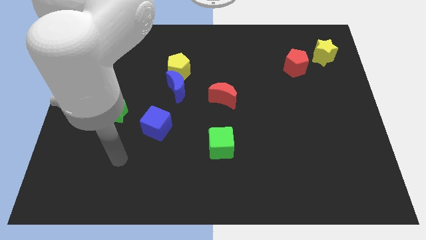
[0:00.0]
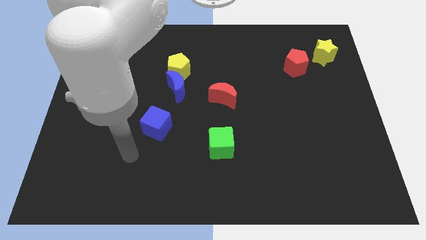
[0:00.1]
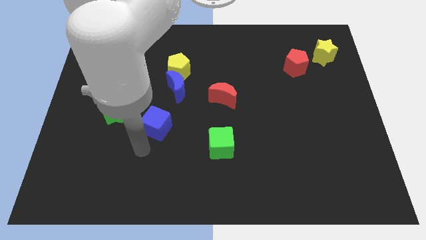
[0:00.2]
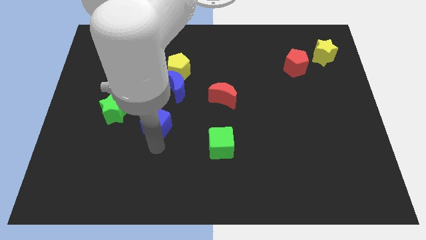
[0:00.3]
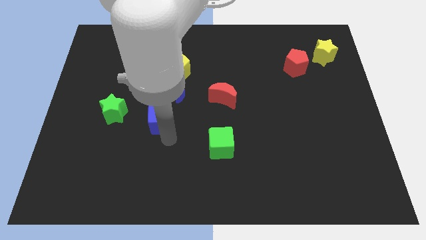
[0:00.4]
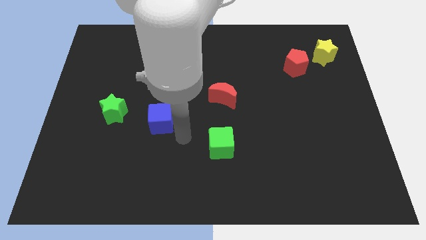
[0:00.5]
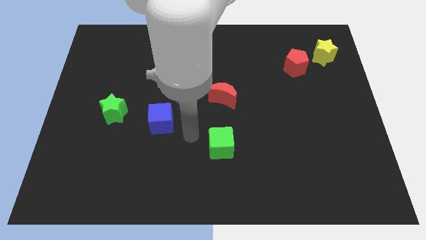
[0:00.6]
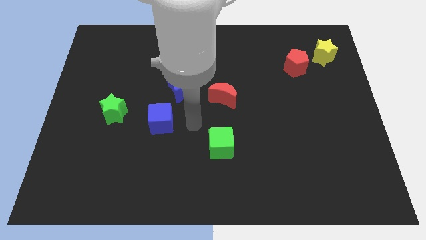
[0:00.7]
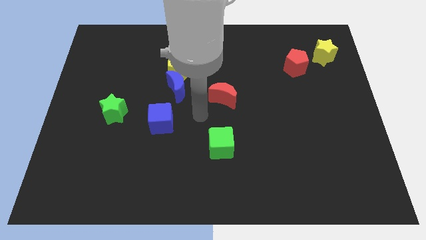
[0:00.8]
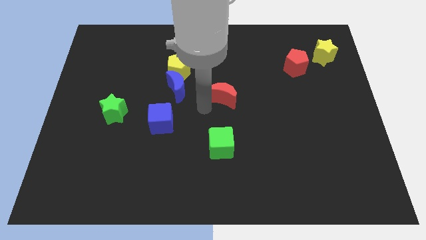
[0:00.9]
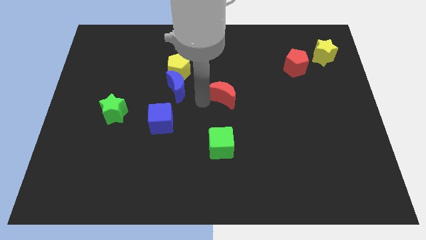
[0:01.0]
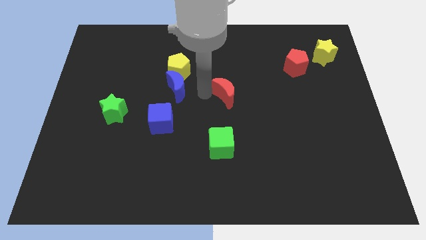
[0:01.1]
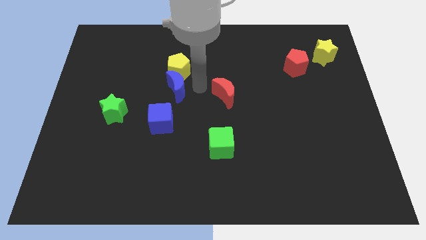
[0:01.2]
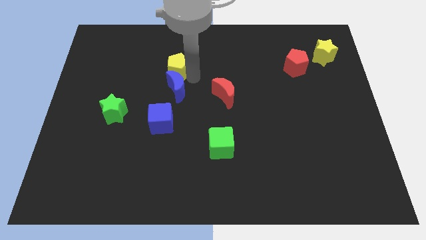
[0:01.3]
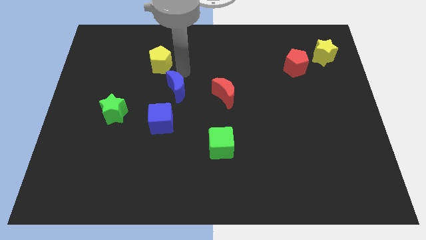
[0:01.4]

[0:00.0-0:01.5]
move the blue moon away from the yellow pentagon

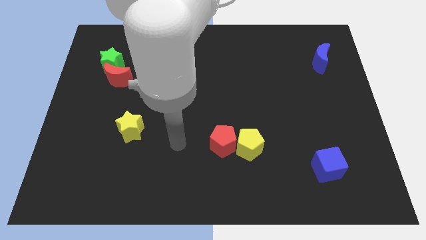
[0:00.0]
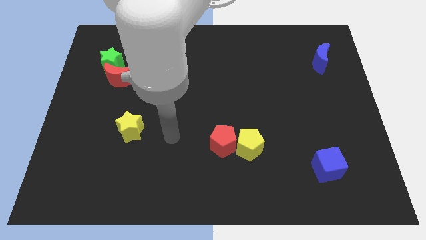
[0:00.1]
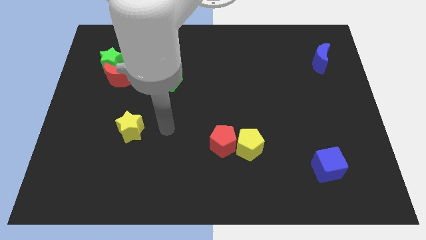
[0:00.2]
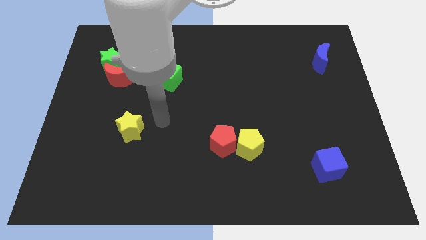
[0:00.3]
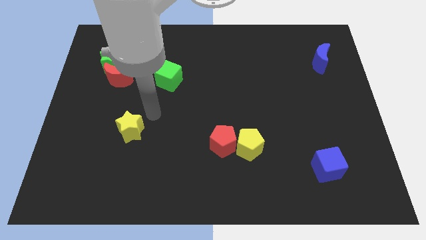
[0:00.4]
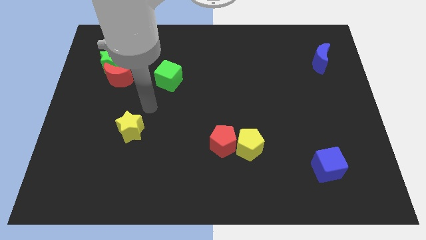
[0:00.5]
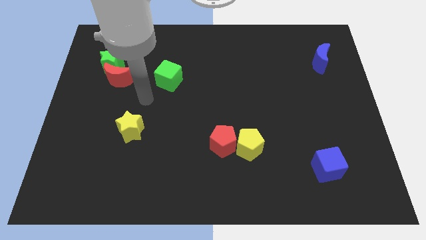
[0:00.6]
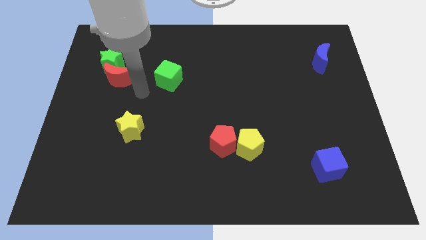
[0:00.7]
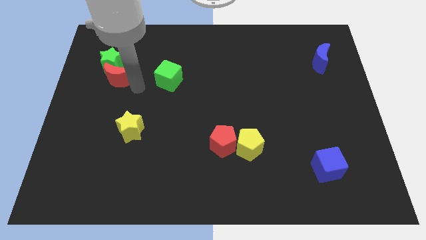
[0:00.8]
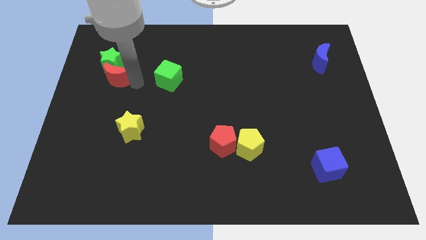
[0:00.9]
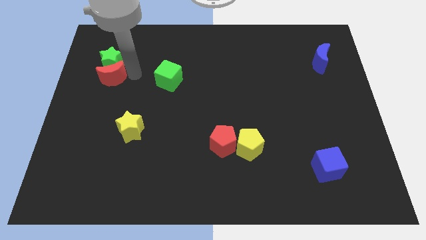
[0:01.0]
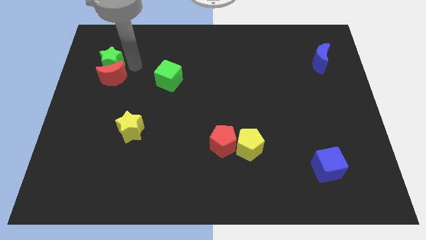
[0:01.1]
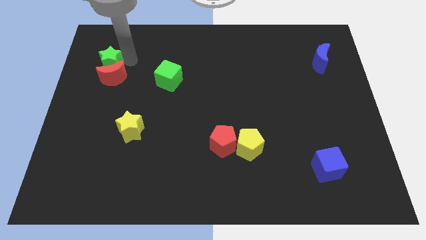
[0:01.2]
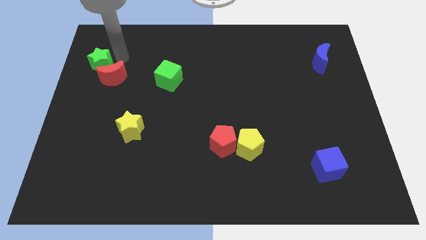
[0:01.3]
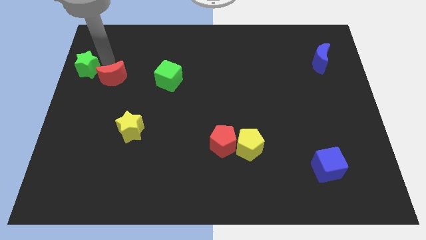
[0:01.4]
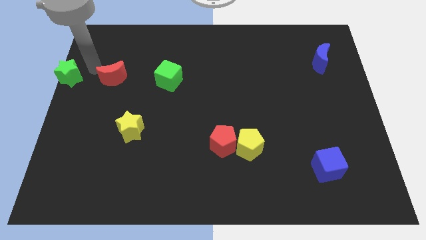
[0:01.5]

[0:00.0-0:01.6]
move the red moon away from the green star

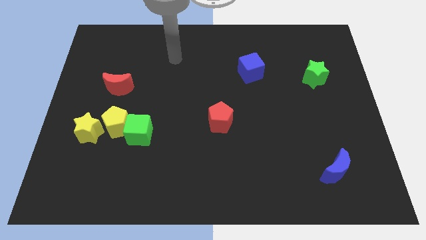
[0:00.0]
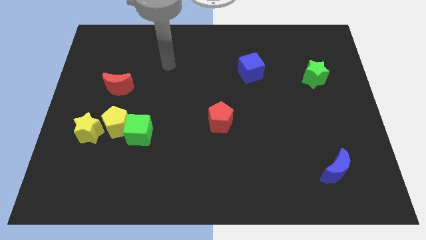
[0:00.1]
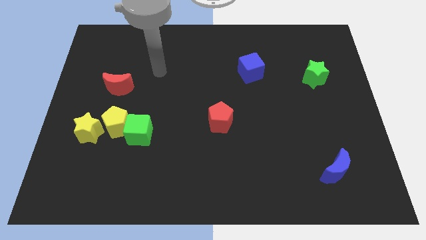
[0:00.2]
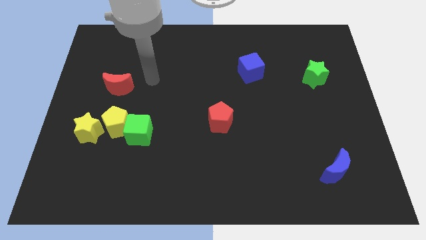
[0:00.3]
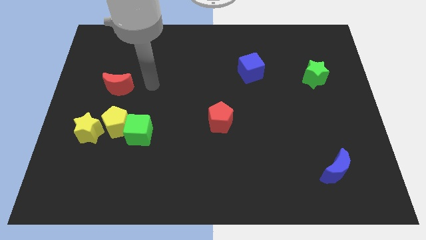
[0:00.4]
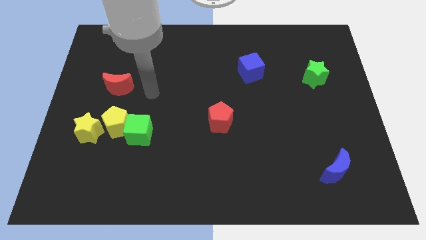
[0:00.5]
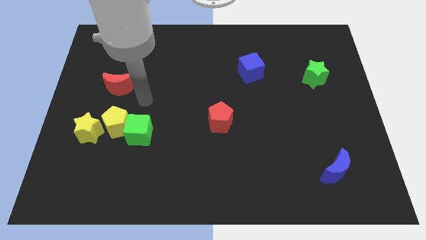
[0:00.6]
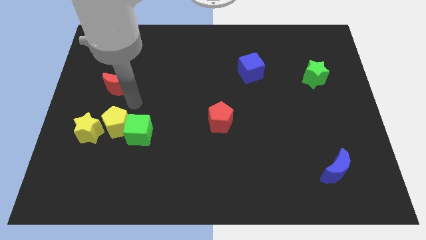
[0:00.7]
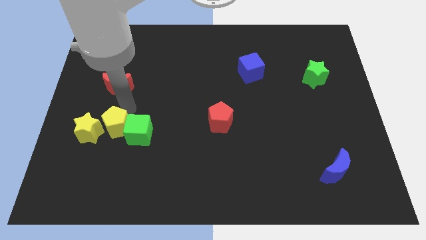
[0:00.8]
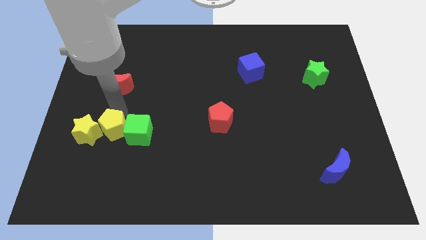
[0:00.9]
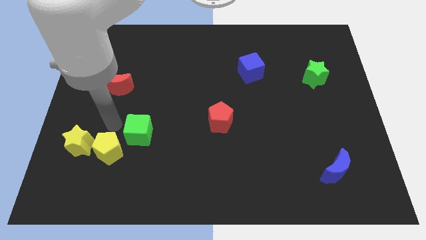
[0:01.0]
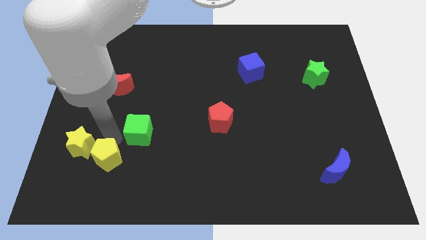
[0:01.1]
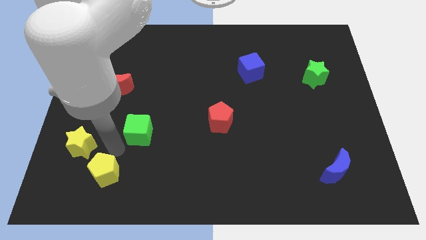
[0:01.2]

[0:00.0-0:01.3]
separate the green cube from the yellow pentagon

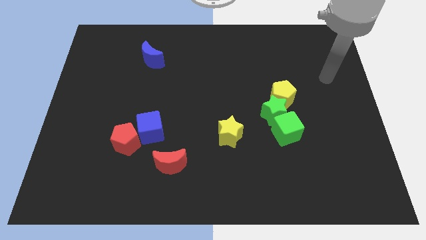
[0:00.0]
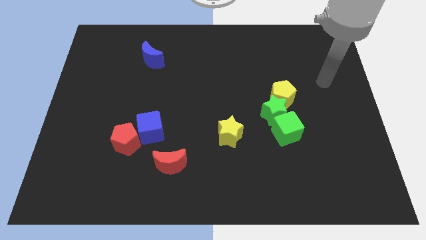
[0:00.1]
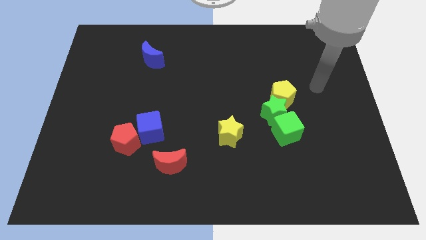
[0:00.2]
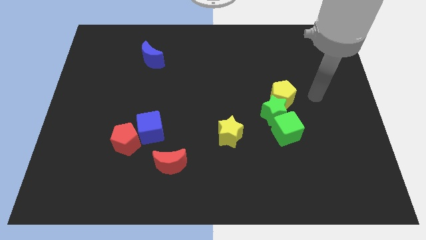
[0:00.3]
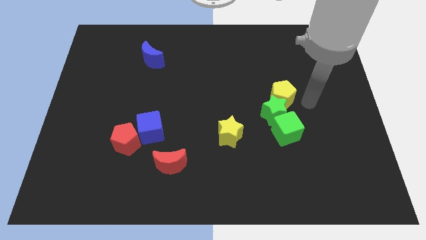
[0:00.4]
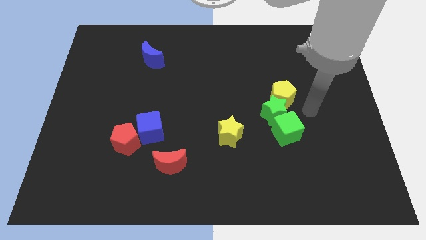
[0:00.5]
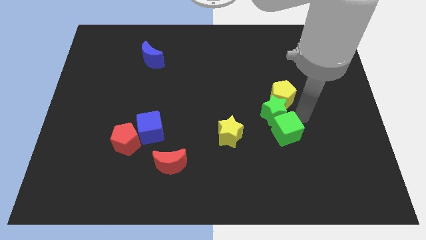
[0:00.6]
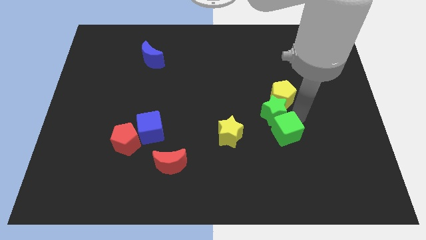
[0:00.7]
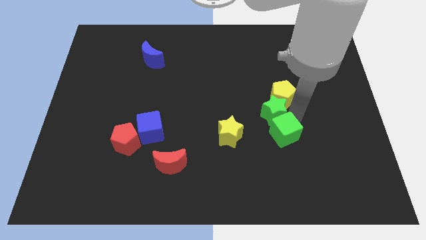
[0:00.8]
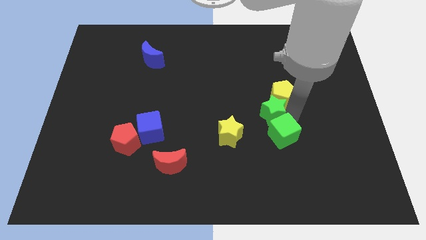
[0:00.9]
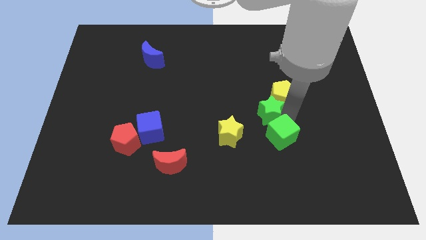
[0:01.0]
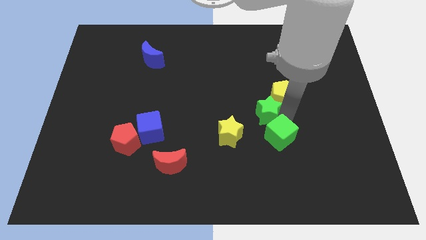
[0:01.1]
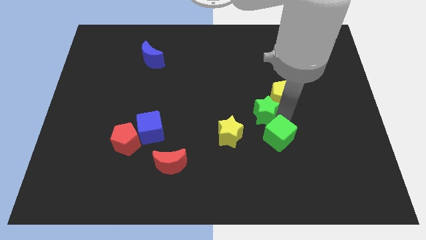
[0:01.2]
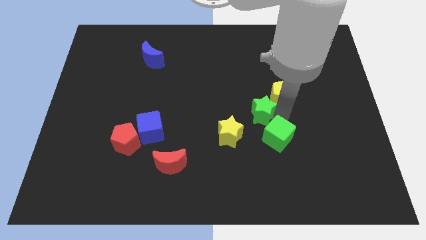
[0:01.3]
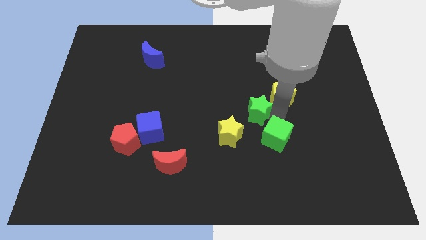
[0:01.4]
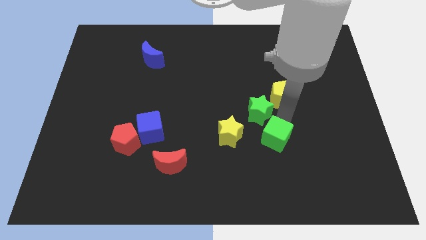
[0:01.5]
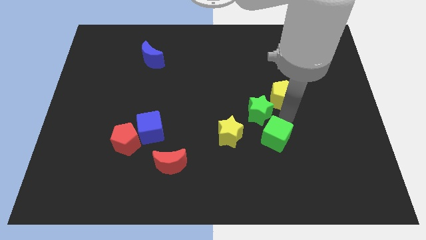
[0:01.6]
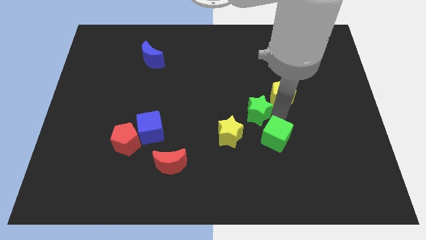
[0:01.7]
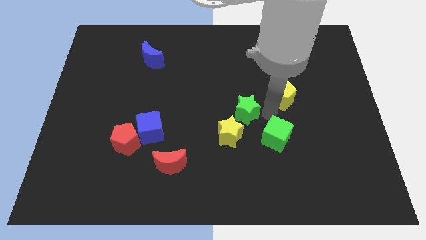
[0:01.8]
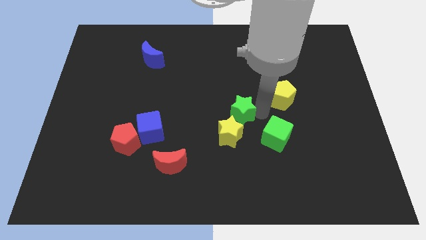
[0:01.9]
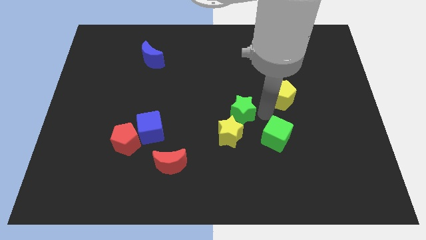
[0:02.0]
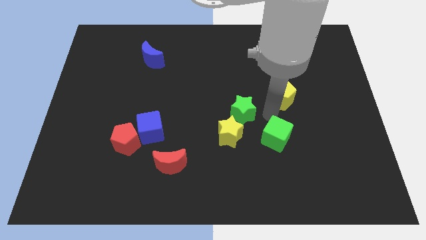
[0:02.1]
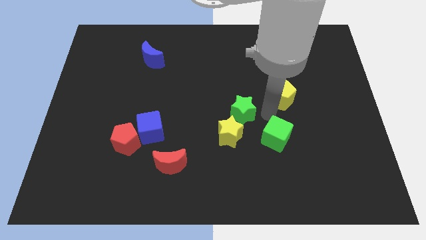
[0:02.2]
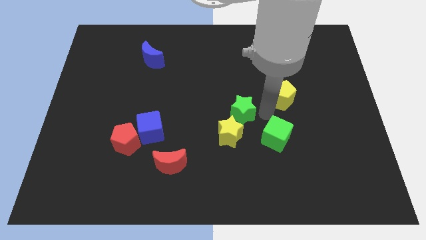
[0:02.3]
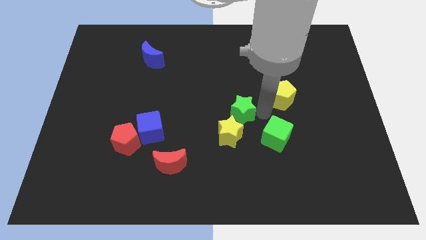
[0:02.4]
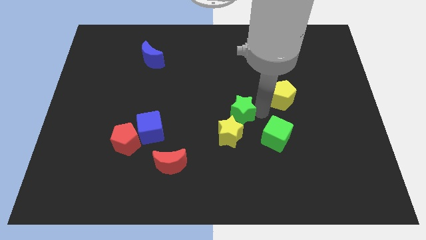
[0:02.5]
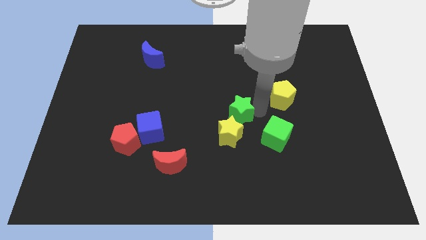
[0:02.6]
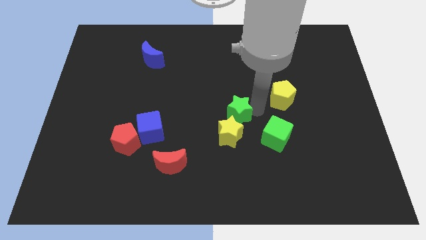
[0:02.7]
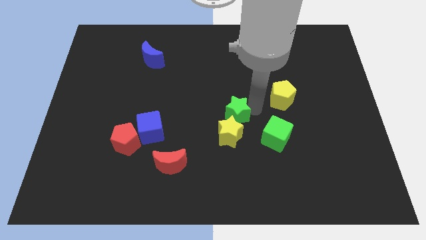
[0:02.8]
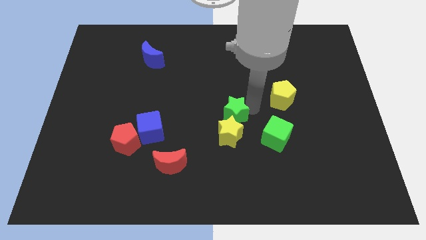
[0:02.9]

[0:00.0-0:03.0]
move the green star away from the yellow pentagon and green cube

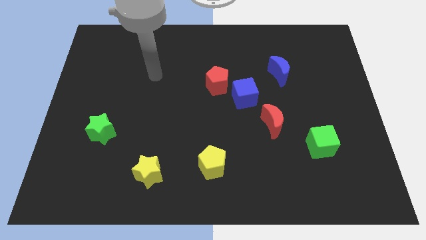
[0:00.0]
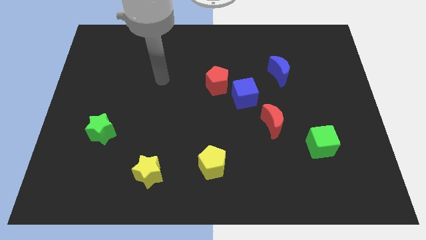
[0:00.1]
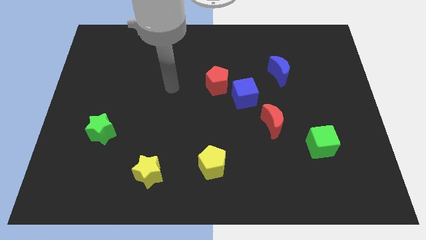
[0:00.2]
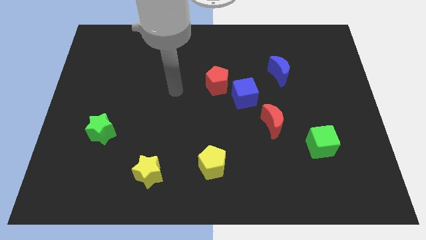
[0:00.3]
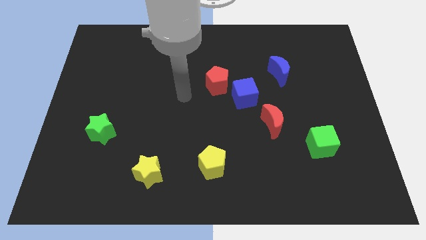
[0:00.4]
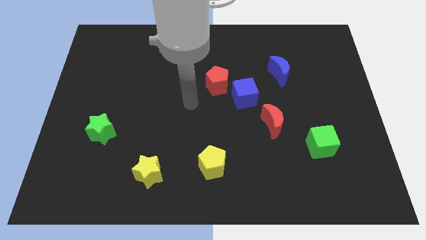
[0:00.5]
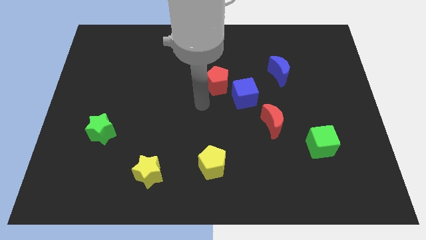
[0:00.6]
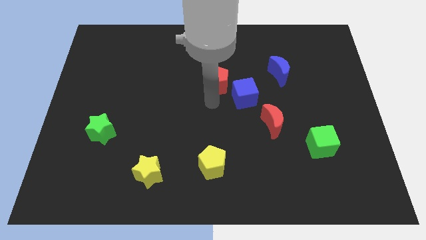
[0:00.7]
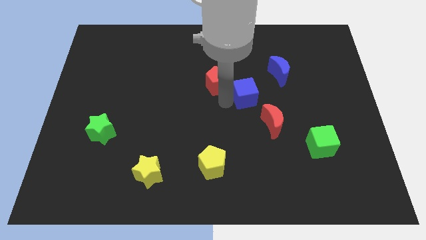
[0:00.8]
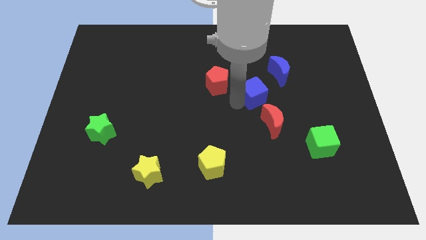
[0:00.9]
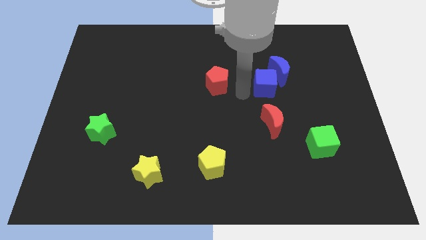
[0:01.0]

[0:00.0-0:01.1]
pull the red pentagon apart from the blue cube

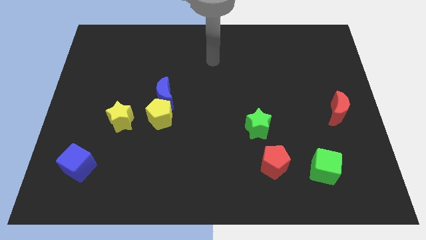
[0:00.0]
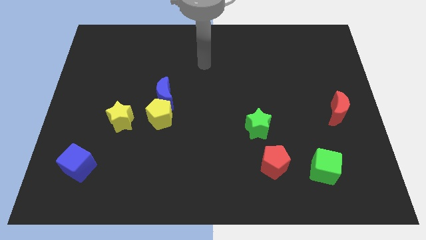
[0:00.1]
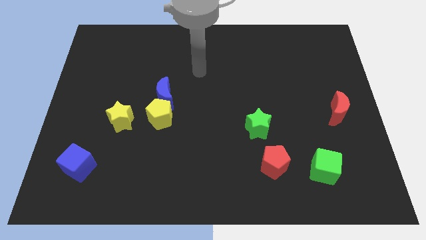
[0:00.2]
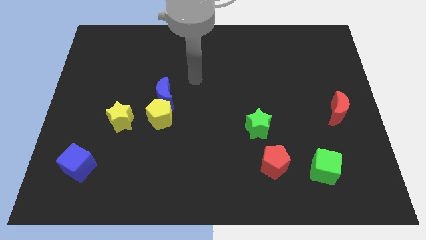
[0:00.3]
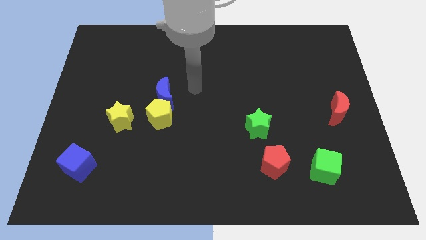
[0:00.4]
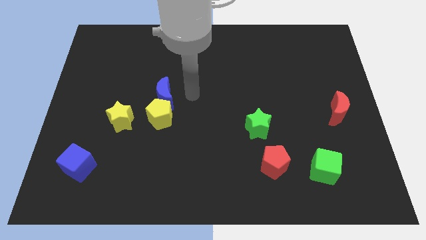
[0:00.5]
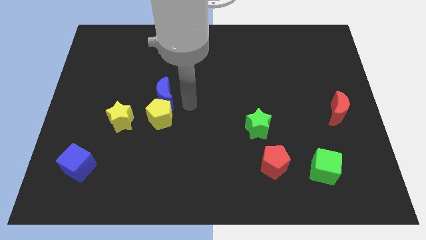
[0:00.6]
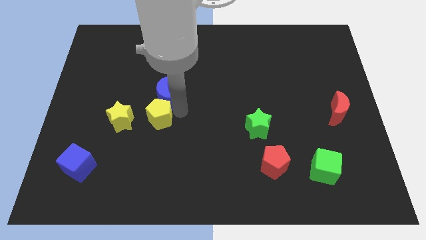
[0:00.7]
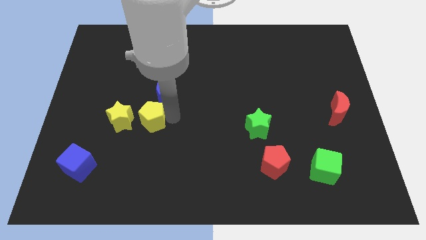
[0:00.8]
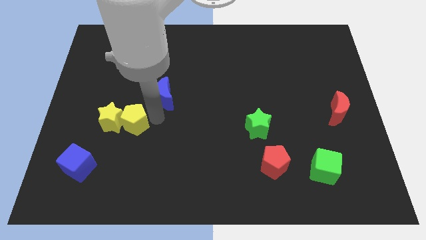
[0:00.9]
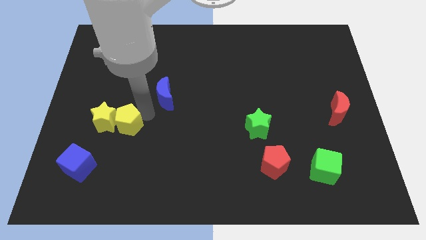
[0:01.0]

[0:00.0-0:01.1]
pull the blue moon apart from the yellow pentagon
